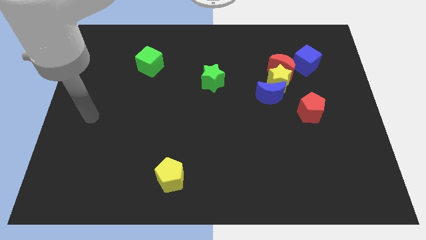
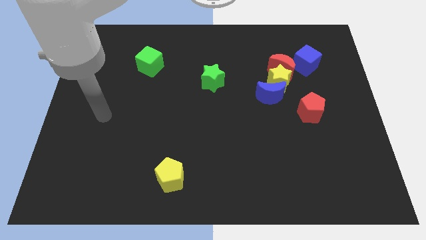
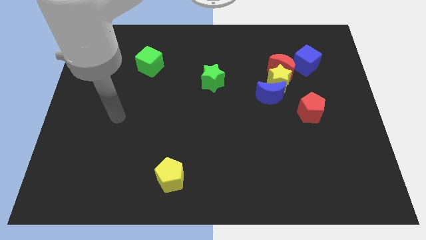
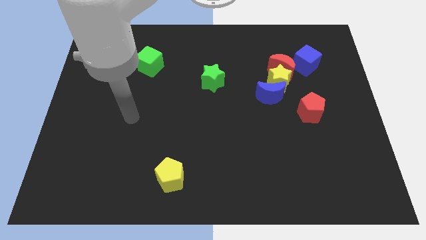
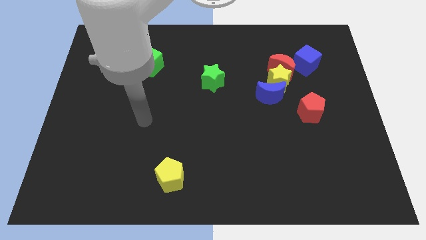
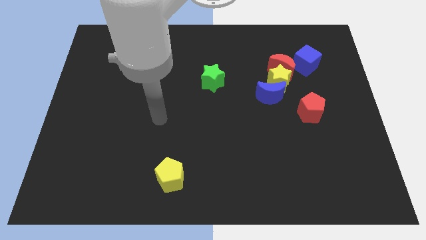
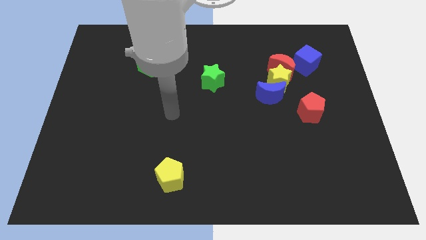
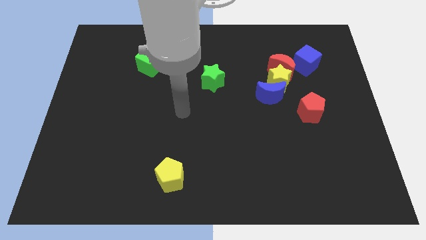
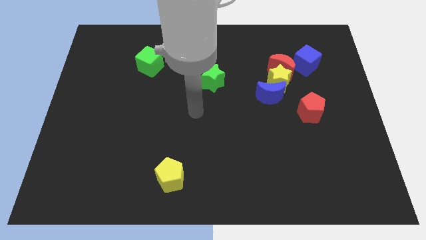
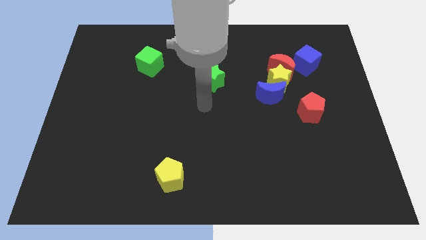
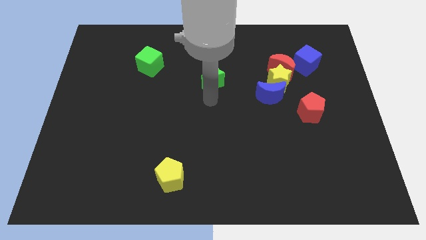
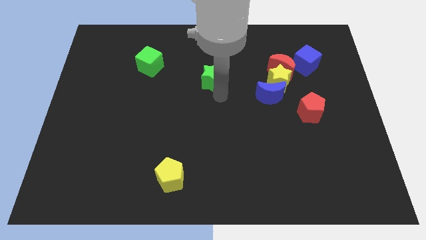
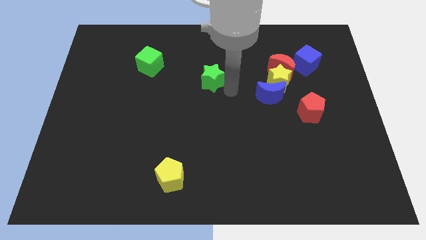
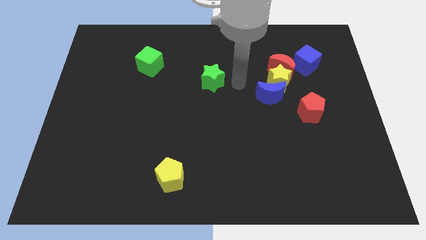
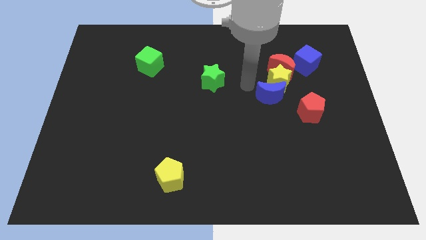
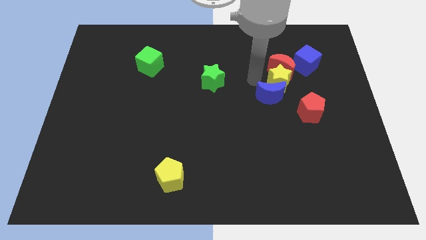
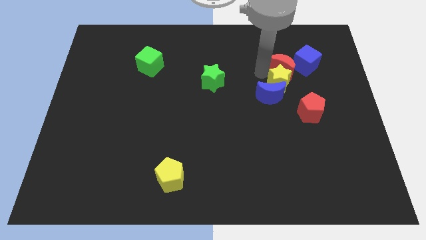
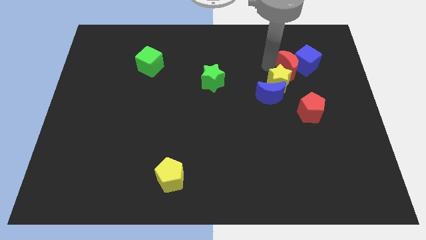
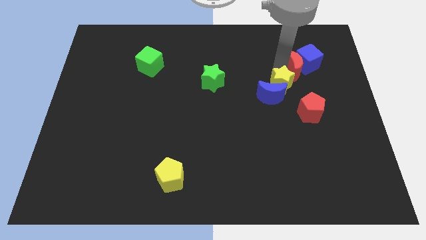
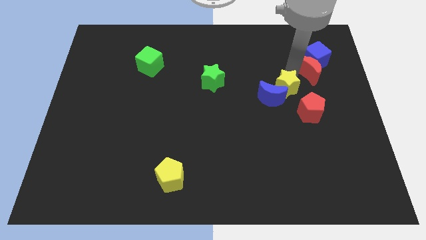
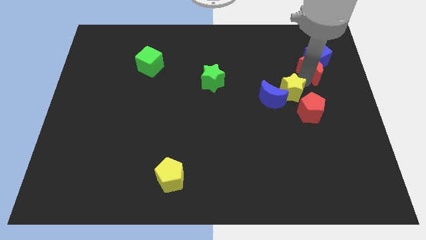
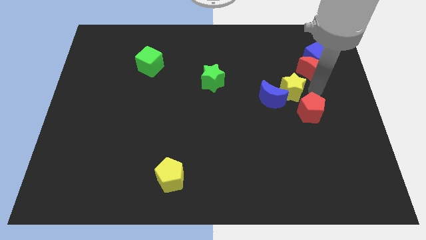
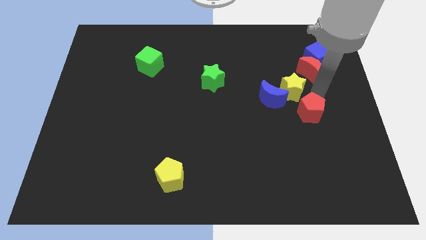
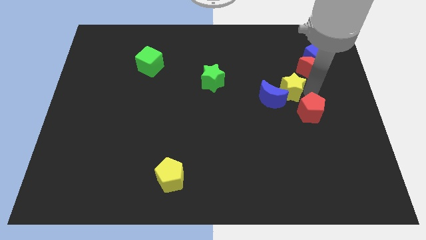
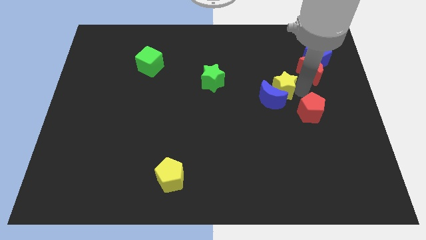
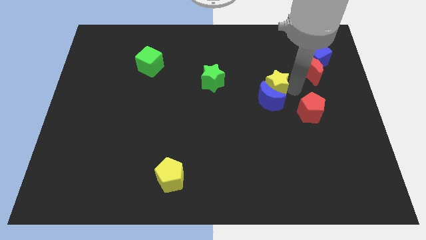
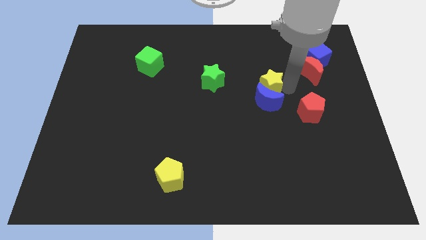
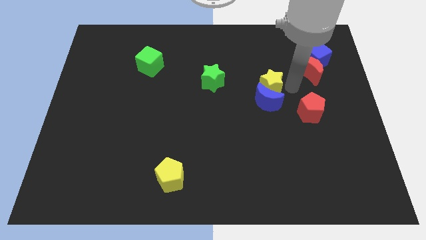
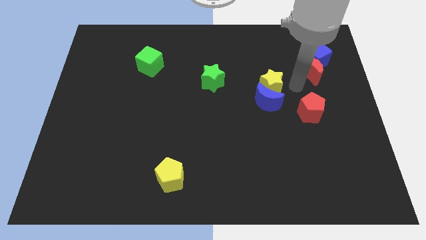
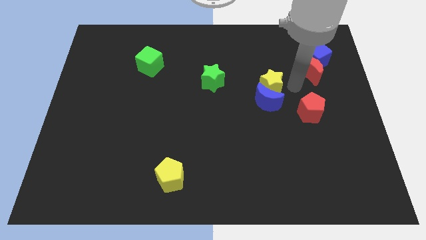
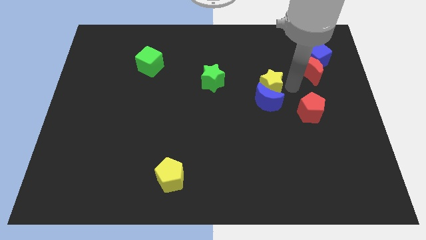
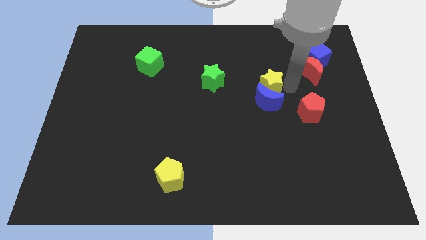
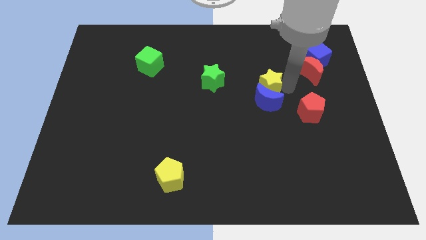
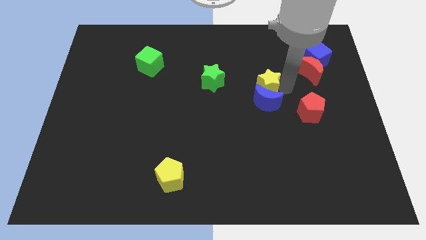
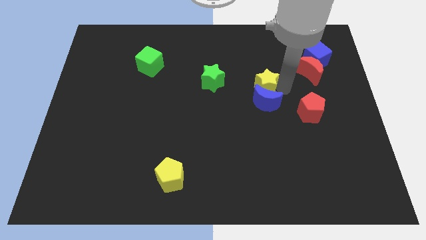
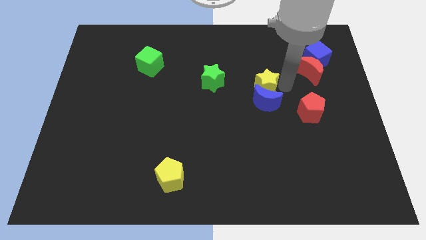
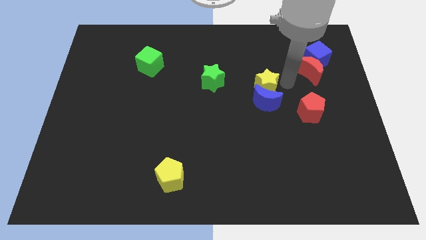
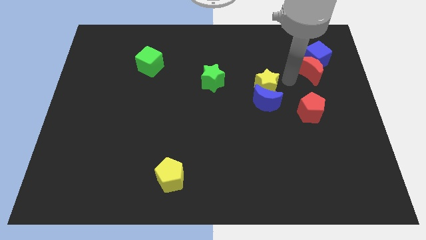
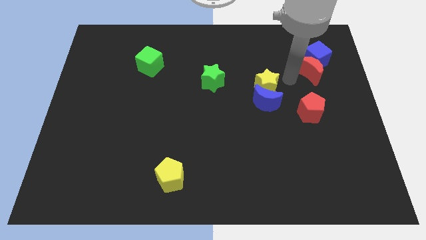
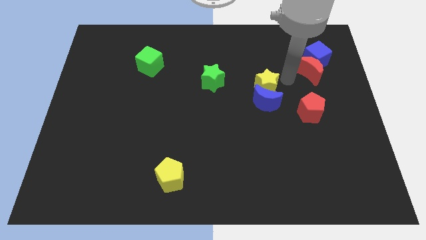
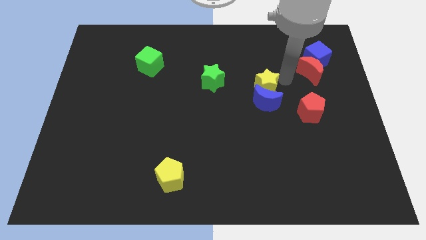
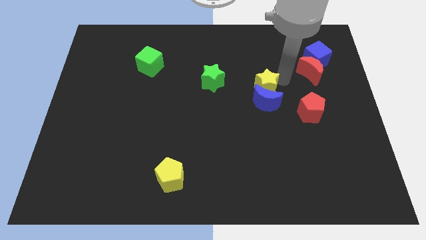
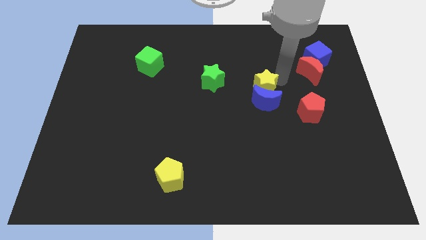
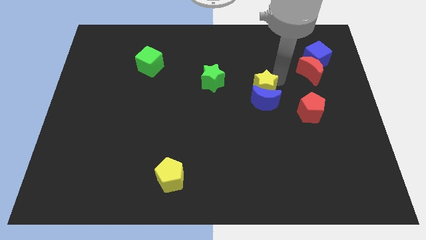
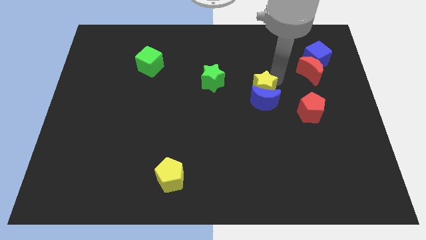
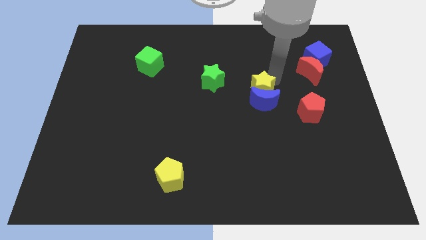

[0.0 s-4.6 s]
separate the yellow star from the red moon, blue moon, and blue cube

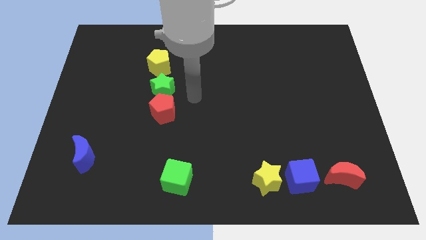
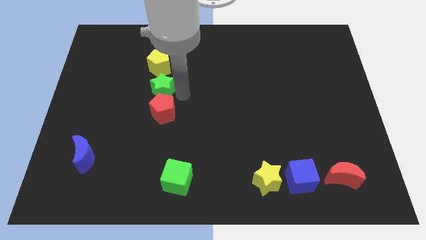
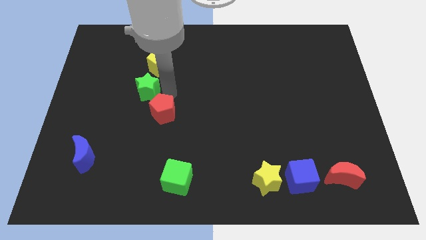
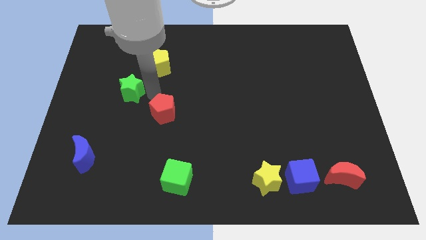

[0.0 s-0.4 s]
move the red pentagon away from the green star

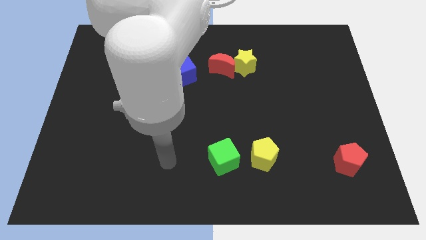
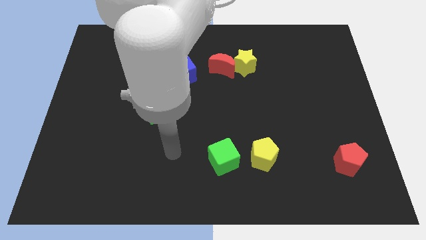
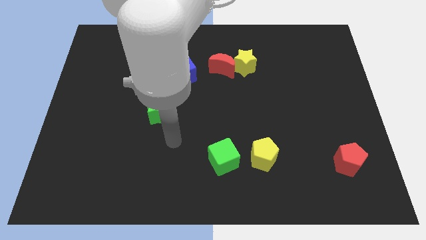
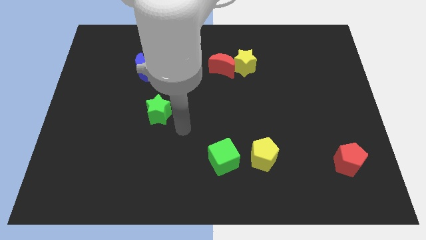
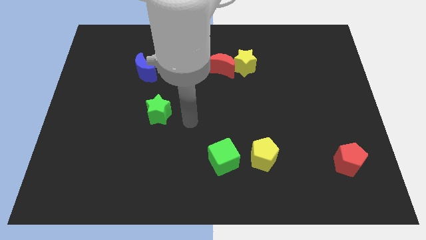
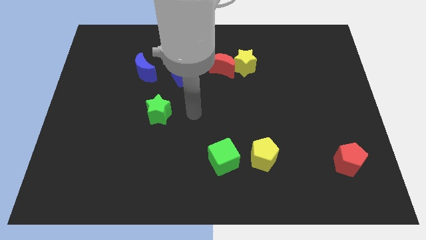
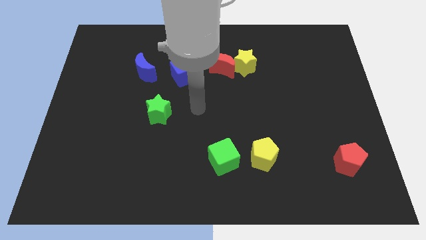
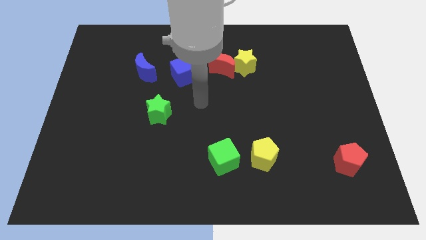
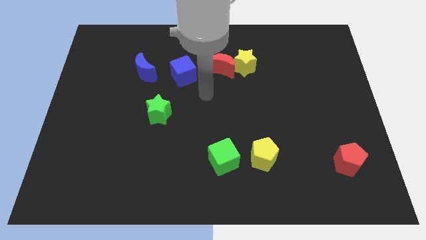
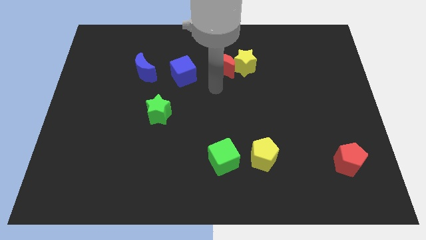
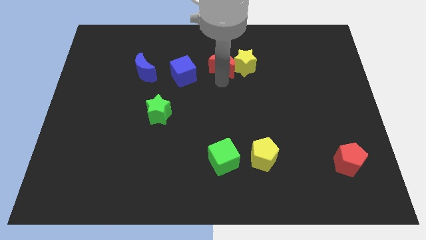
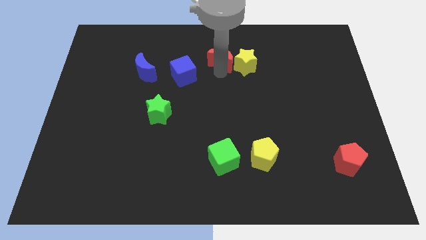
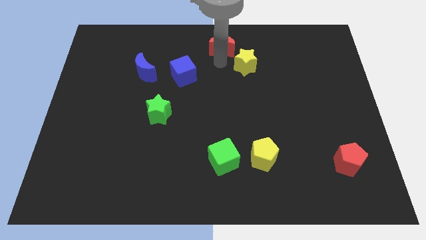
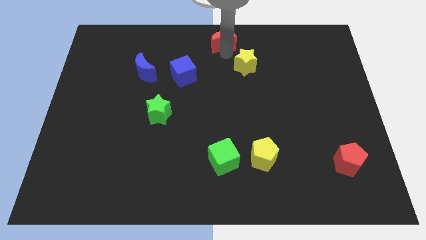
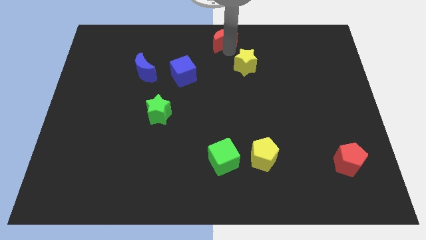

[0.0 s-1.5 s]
move the yellow star away from the red moon

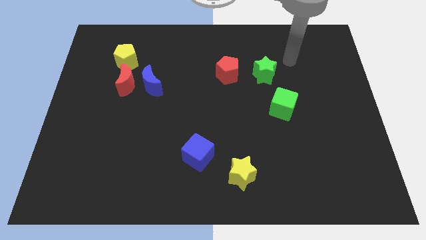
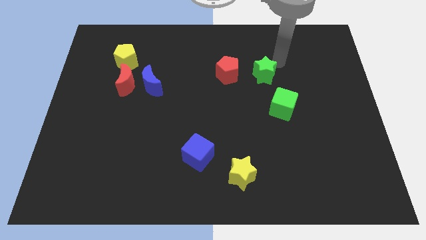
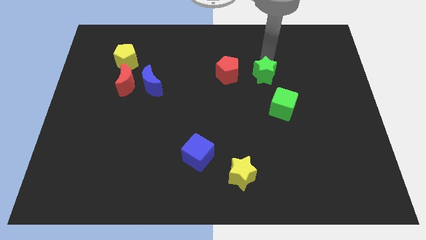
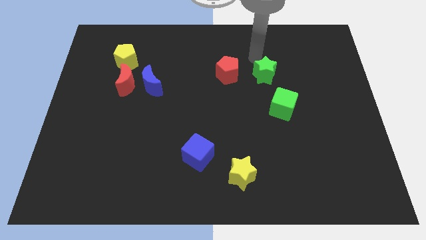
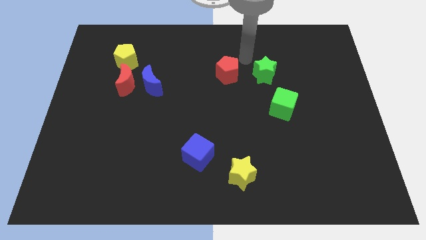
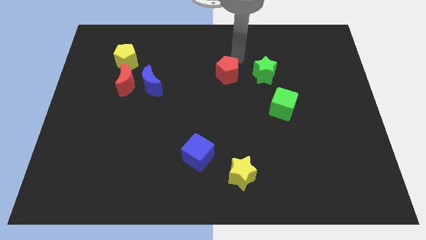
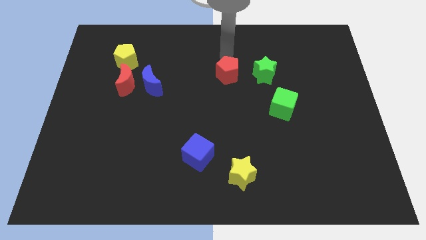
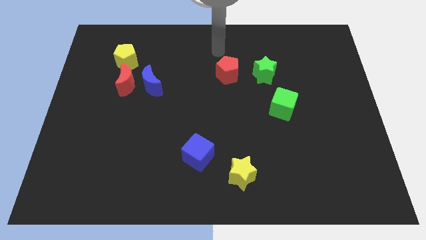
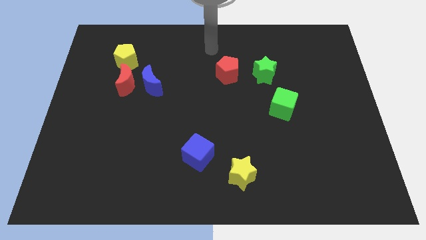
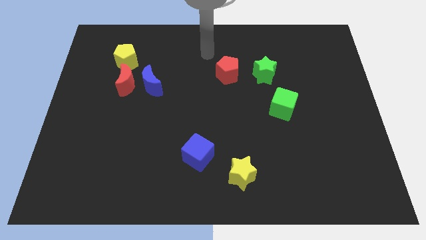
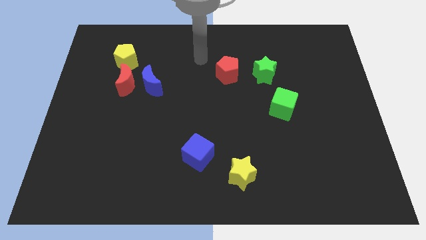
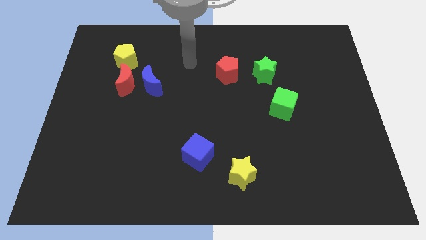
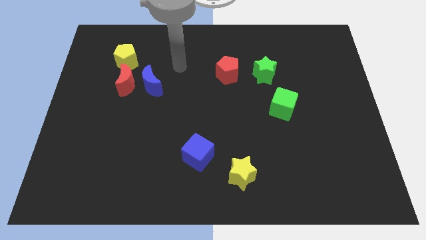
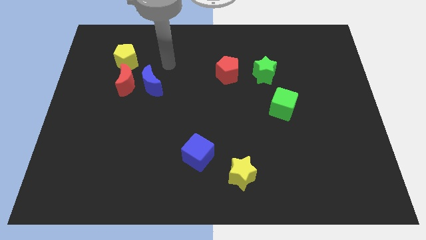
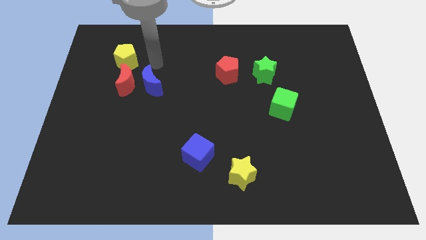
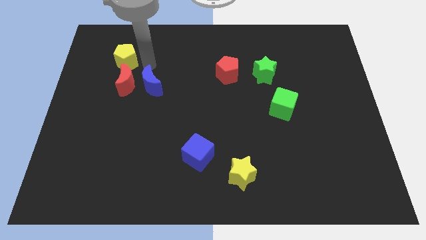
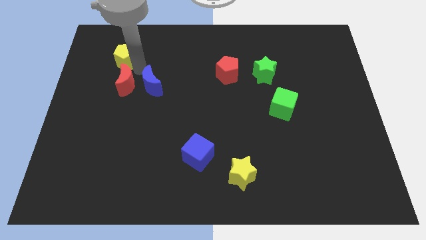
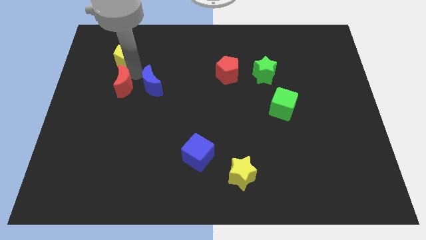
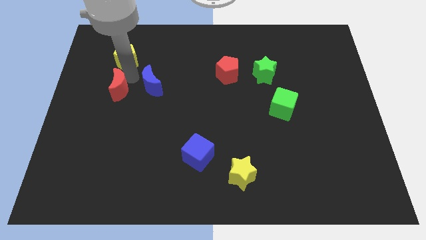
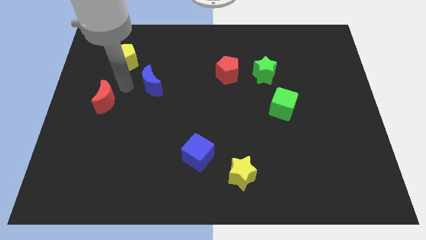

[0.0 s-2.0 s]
move the blue moon away from the red moon

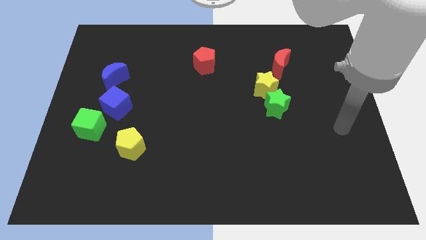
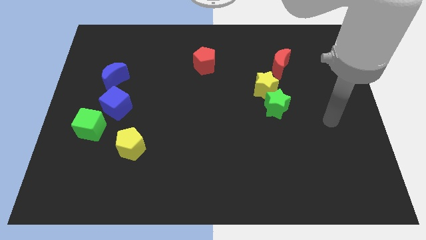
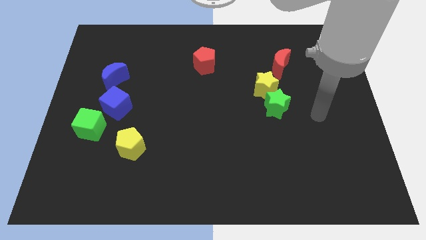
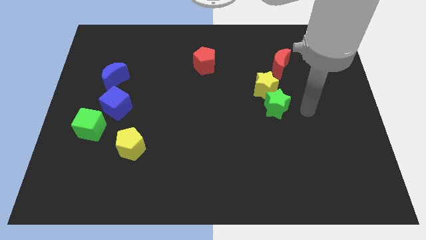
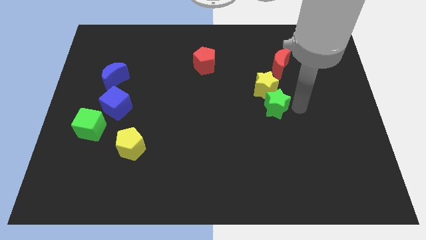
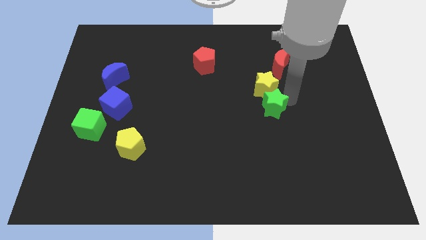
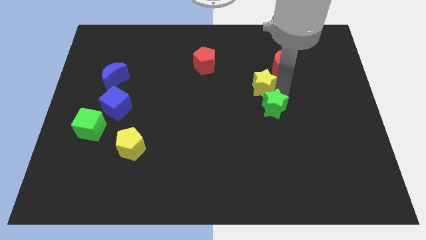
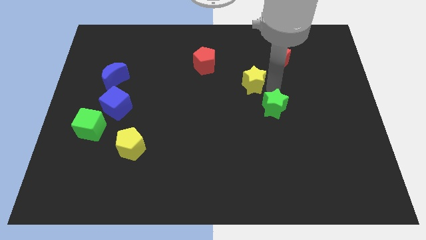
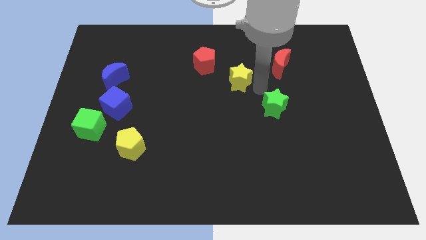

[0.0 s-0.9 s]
move the green star away from the yellow star
